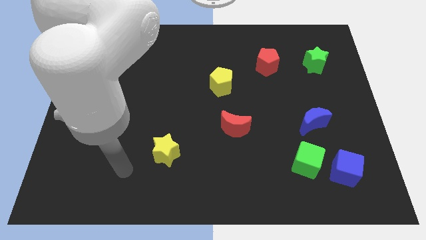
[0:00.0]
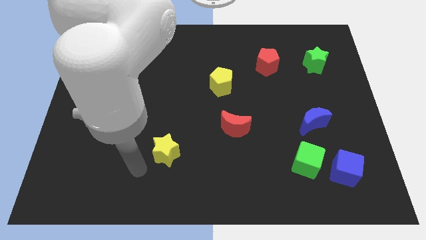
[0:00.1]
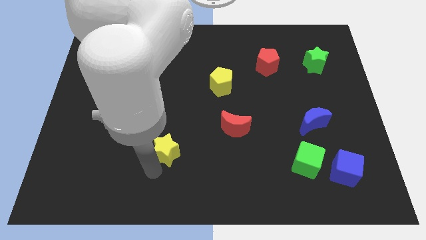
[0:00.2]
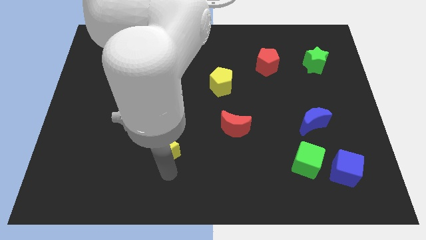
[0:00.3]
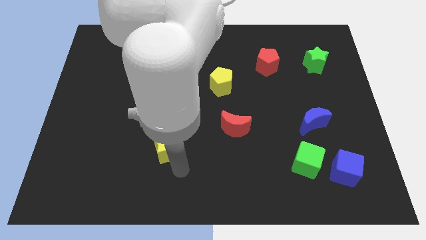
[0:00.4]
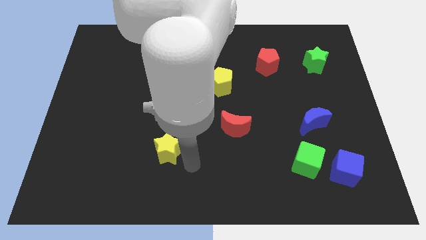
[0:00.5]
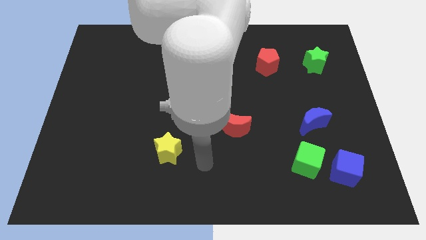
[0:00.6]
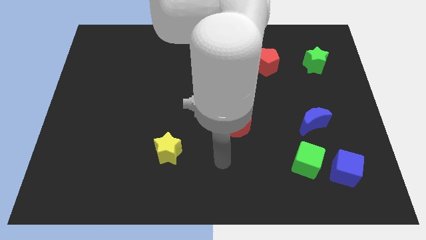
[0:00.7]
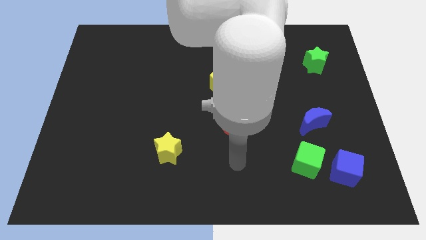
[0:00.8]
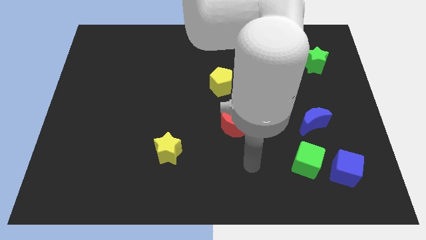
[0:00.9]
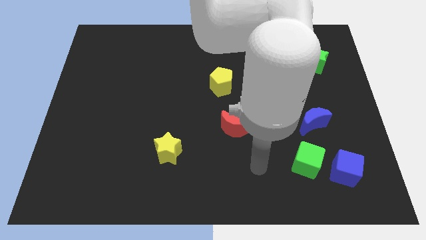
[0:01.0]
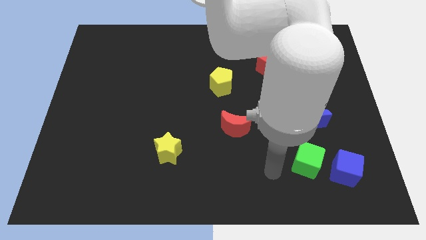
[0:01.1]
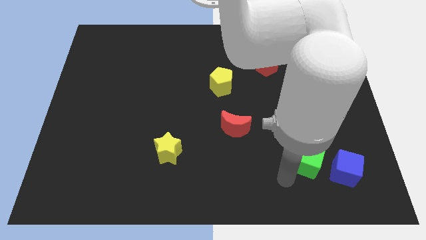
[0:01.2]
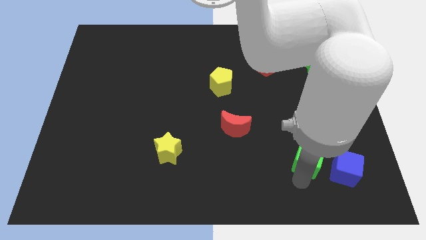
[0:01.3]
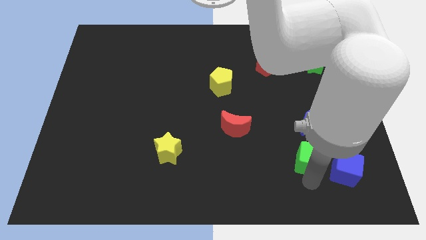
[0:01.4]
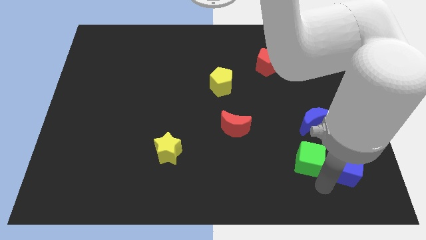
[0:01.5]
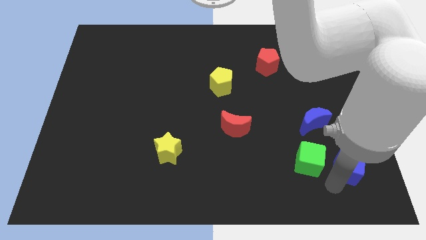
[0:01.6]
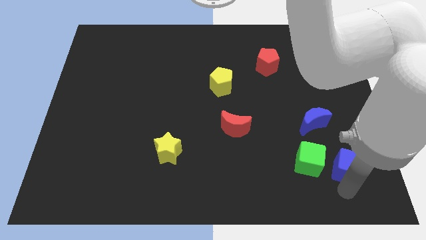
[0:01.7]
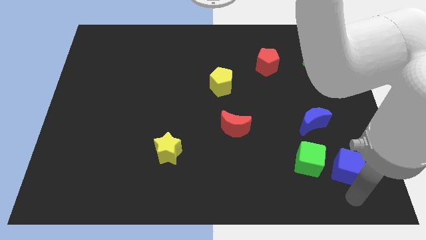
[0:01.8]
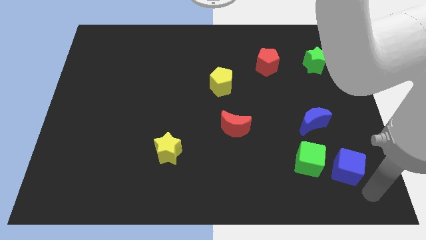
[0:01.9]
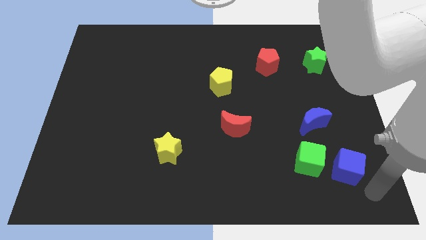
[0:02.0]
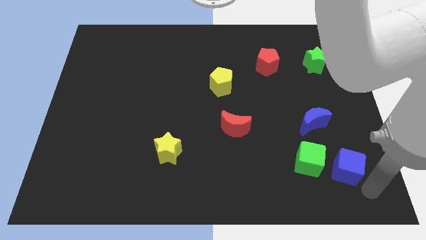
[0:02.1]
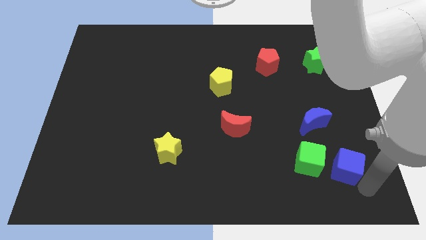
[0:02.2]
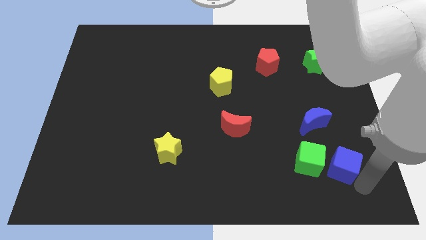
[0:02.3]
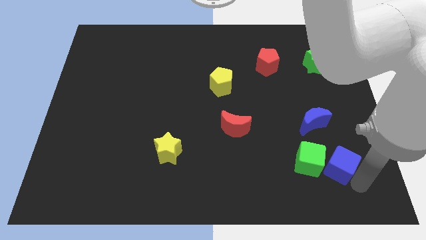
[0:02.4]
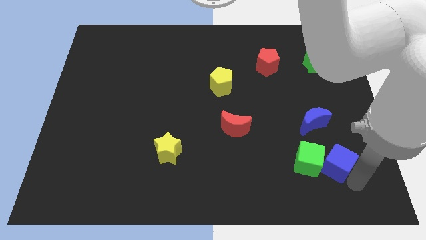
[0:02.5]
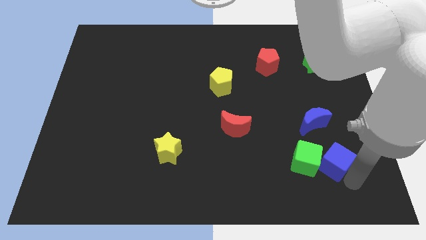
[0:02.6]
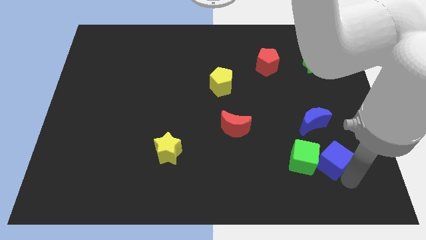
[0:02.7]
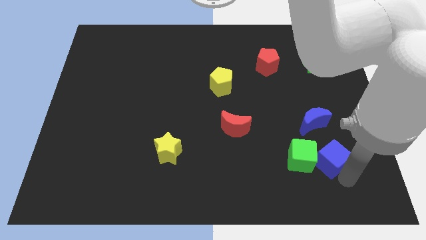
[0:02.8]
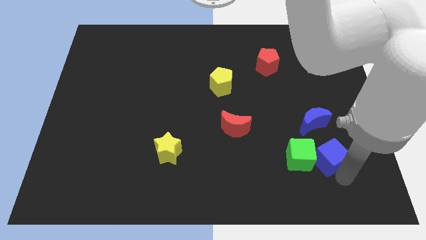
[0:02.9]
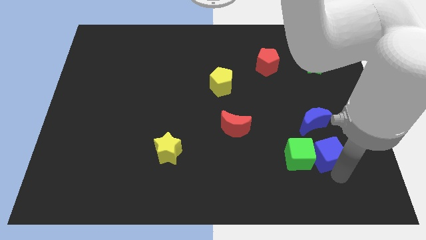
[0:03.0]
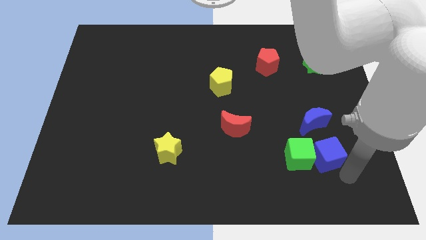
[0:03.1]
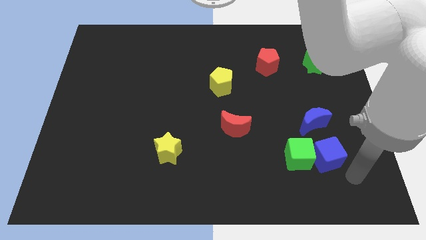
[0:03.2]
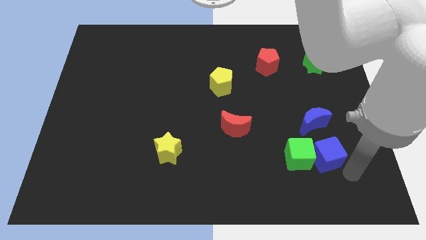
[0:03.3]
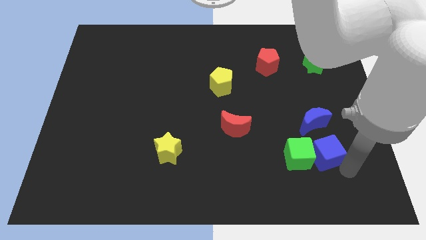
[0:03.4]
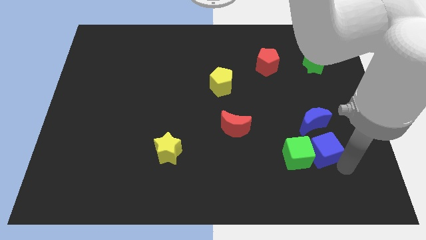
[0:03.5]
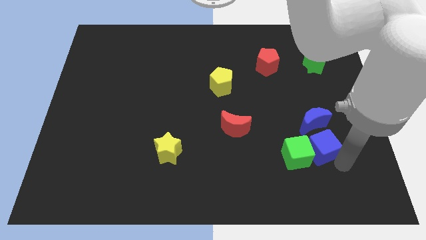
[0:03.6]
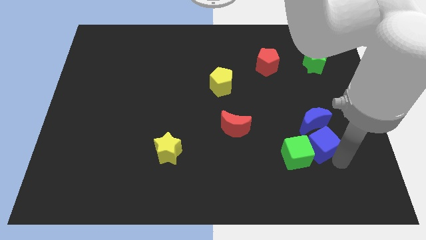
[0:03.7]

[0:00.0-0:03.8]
slightly push the blue cube upwards and then left

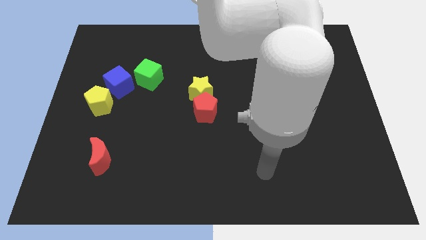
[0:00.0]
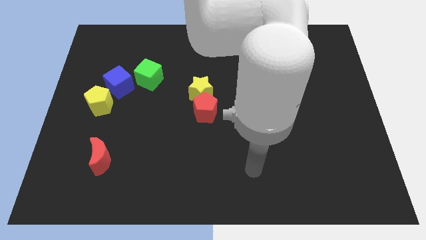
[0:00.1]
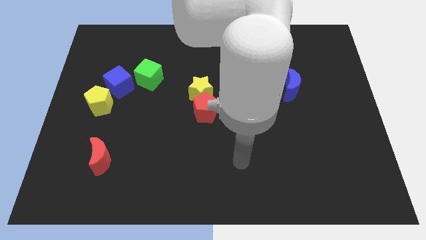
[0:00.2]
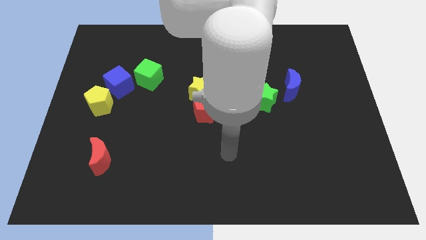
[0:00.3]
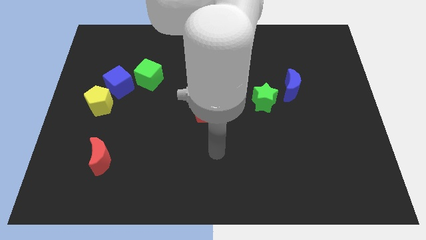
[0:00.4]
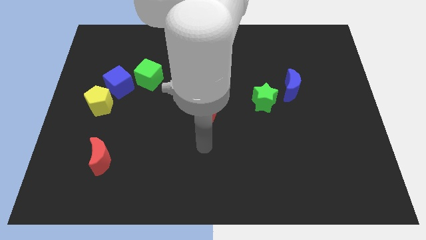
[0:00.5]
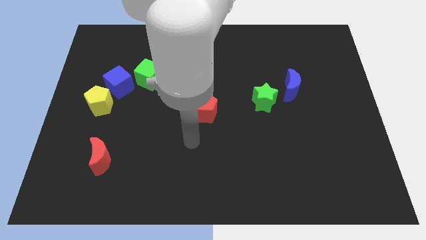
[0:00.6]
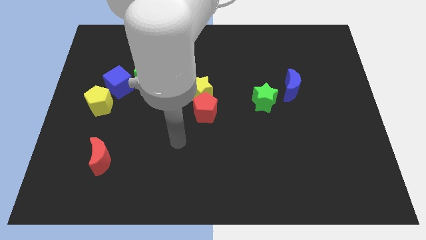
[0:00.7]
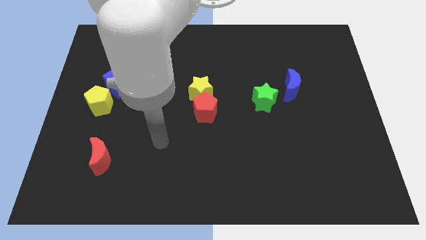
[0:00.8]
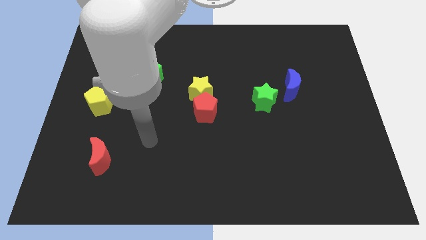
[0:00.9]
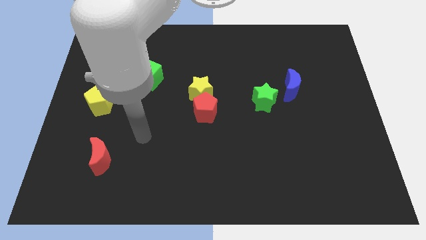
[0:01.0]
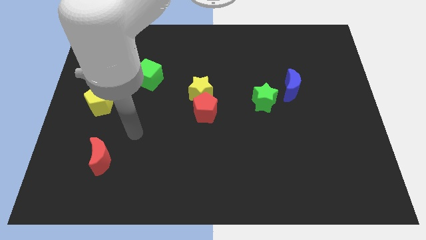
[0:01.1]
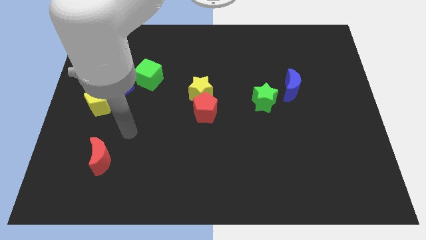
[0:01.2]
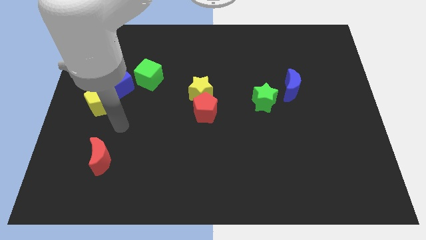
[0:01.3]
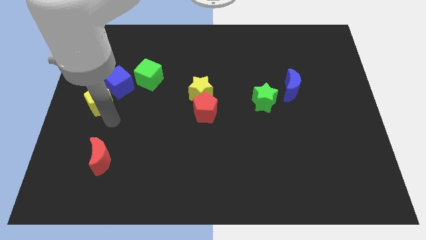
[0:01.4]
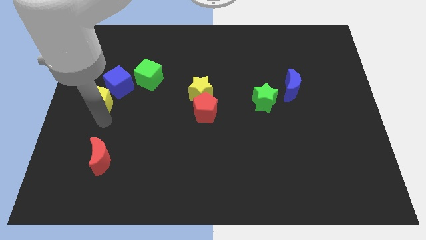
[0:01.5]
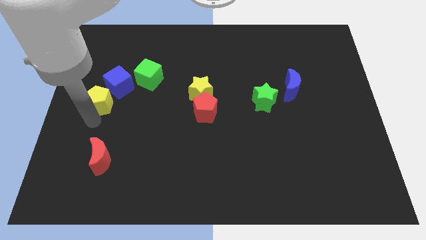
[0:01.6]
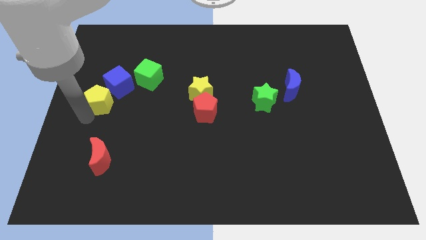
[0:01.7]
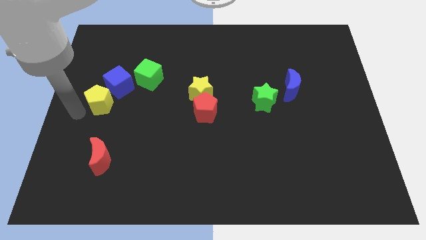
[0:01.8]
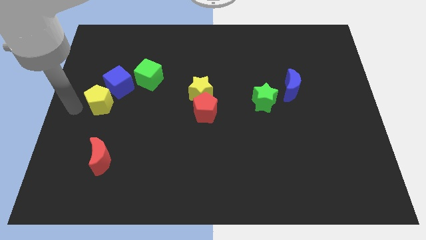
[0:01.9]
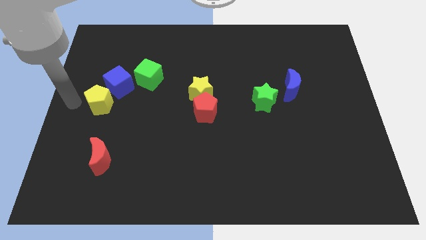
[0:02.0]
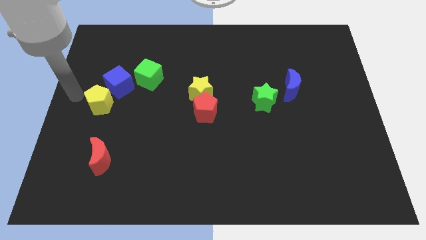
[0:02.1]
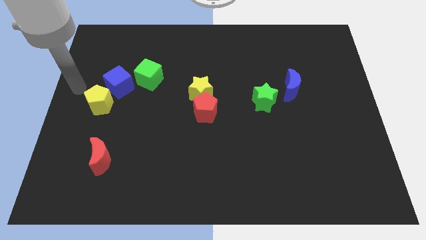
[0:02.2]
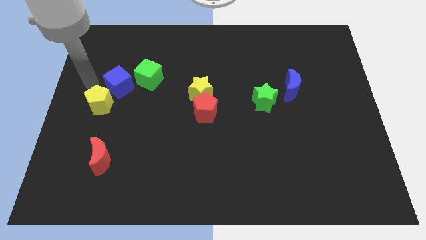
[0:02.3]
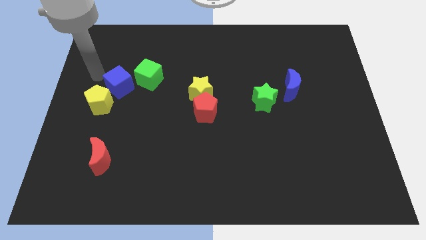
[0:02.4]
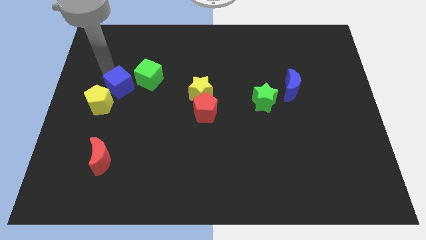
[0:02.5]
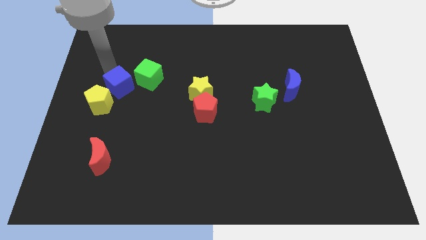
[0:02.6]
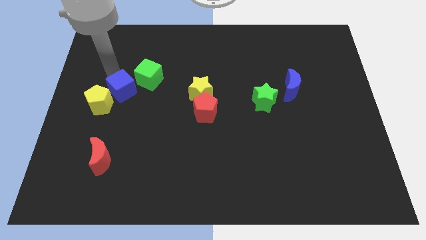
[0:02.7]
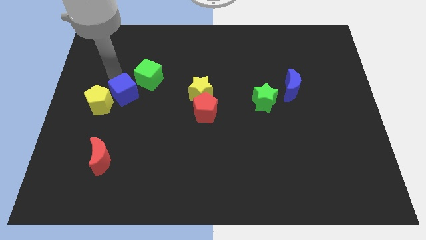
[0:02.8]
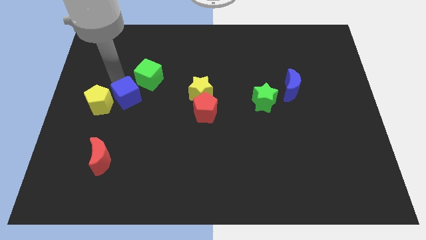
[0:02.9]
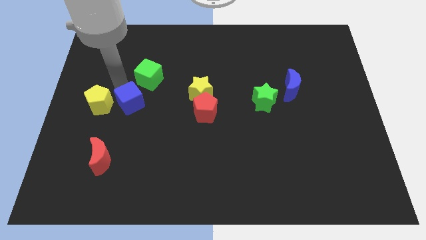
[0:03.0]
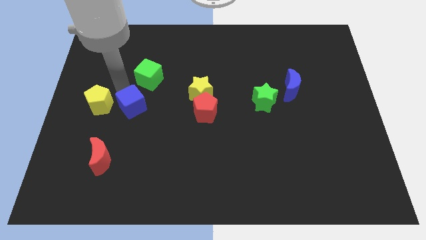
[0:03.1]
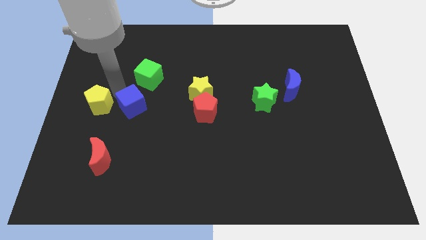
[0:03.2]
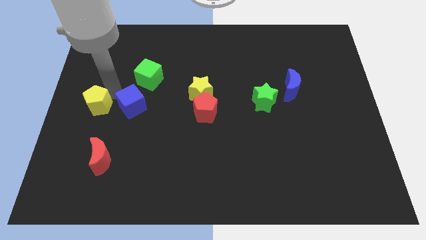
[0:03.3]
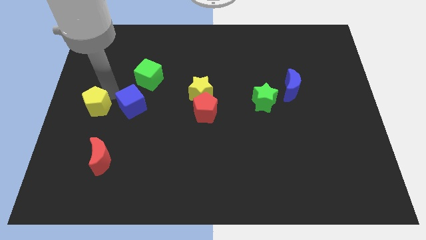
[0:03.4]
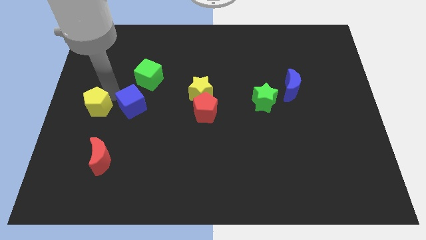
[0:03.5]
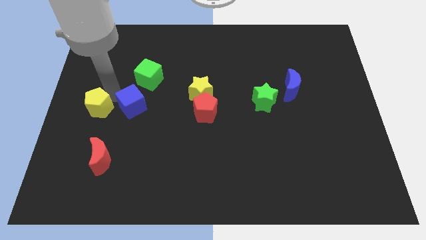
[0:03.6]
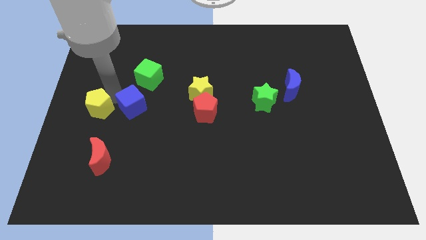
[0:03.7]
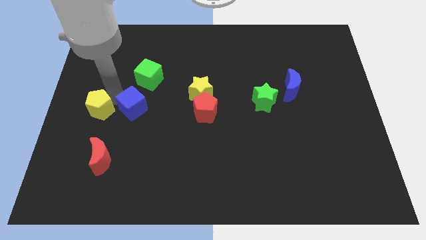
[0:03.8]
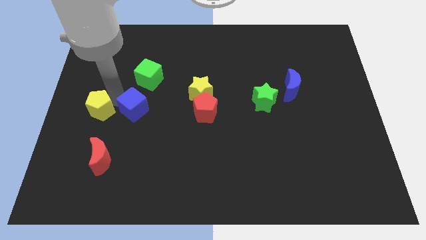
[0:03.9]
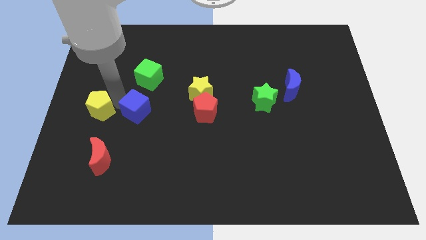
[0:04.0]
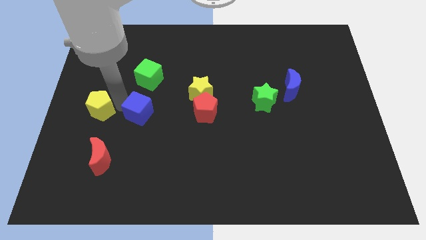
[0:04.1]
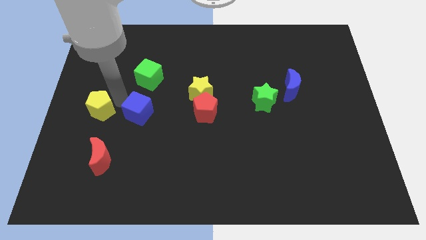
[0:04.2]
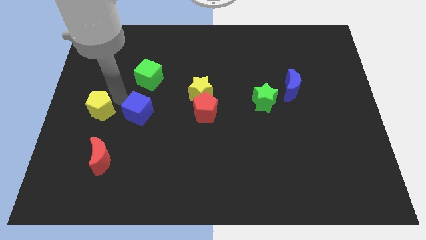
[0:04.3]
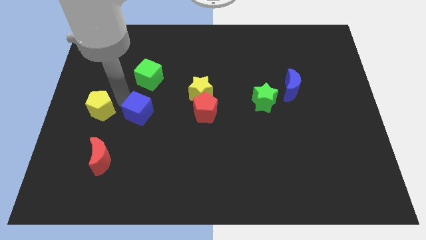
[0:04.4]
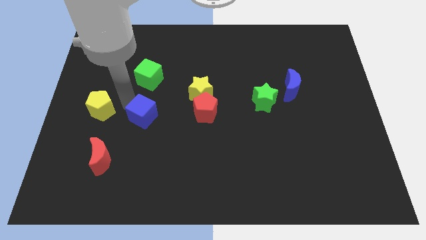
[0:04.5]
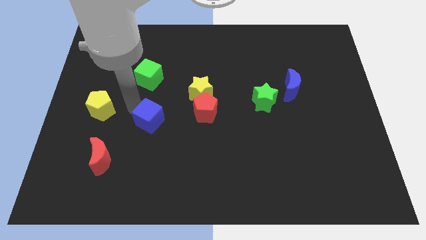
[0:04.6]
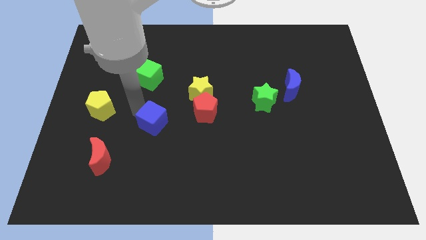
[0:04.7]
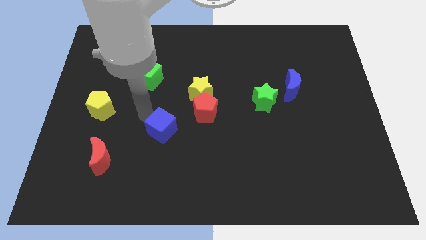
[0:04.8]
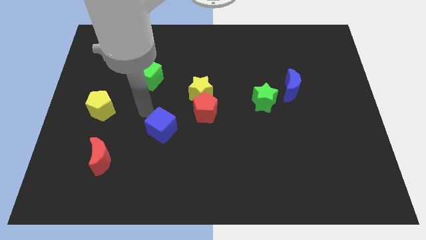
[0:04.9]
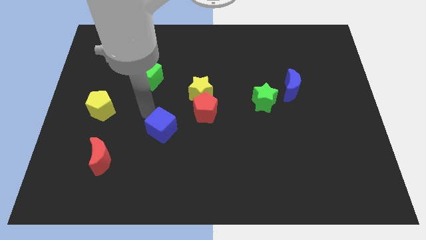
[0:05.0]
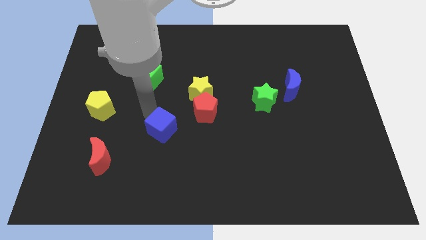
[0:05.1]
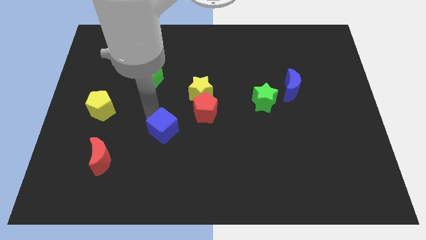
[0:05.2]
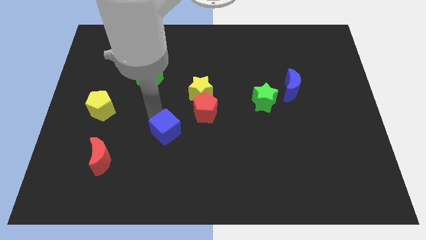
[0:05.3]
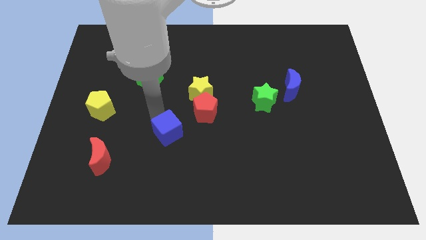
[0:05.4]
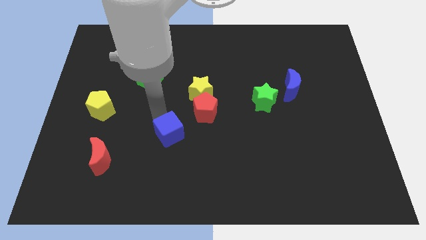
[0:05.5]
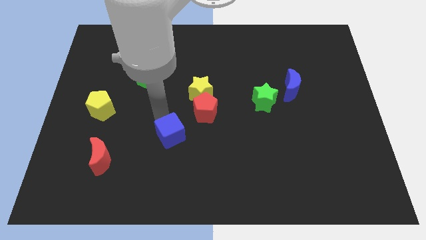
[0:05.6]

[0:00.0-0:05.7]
push the blue cube downwards and then to the right
